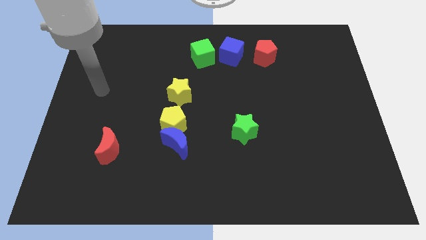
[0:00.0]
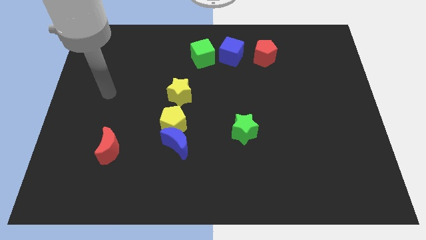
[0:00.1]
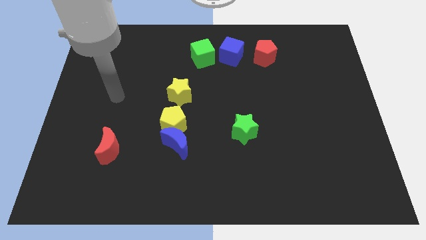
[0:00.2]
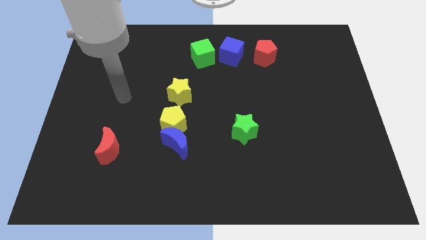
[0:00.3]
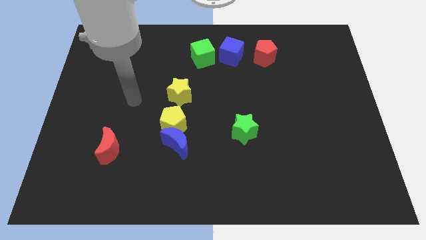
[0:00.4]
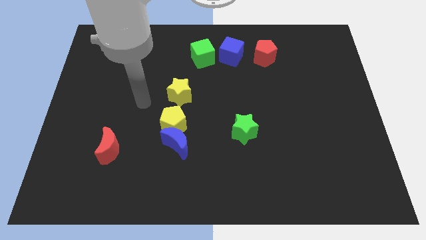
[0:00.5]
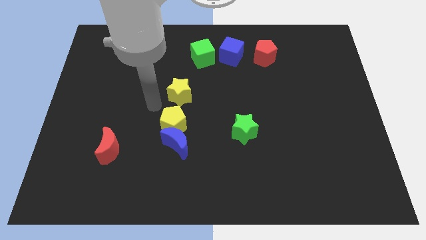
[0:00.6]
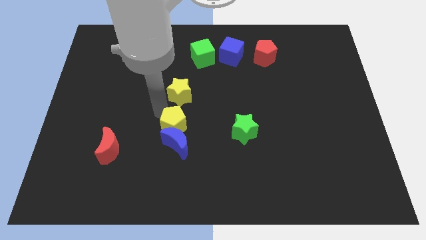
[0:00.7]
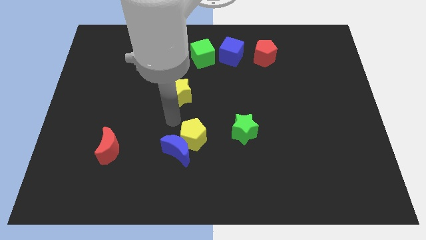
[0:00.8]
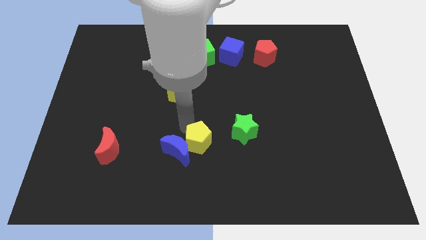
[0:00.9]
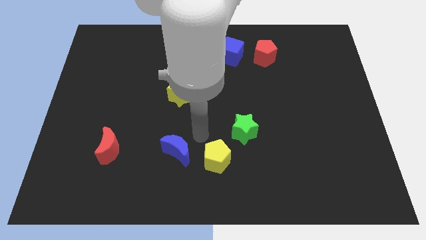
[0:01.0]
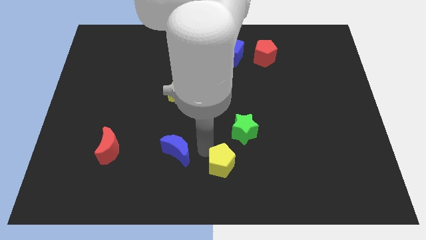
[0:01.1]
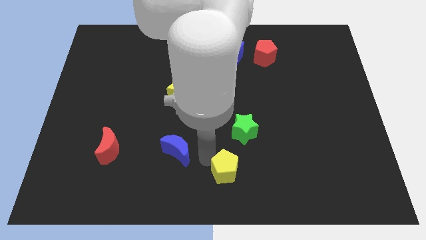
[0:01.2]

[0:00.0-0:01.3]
move the blue moon away from the yellow pentagon

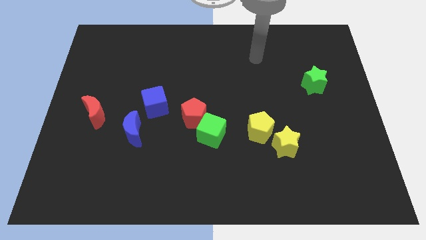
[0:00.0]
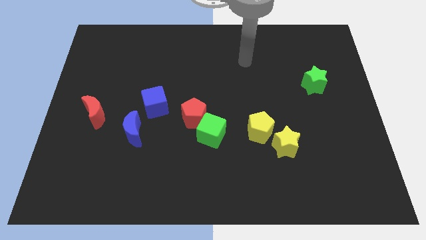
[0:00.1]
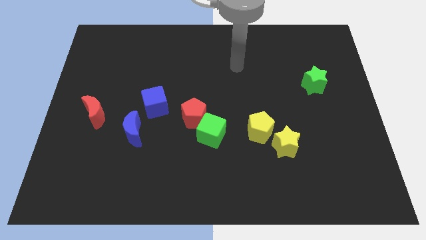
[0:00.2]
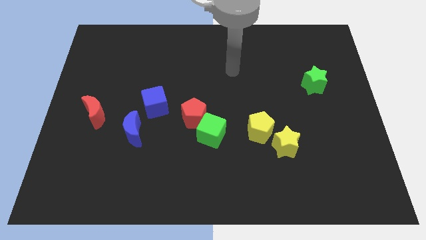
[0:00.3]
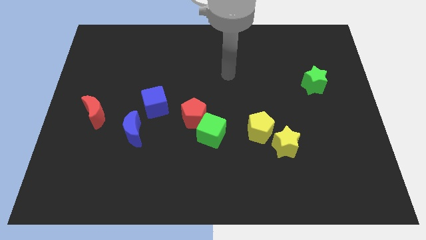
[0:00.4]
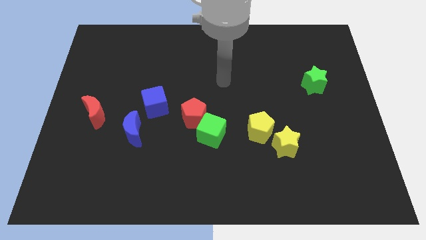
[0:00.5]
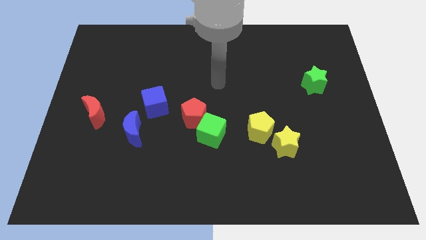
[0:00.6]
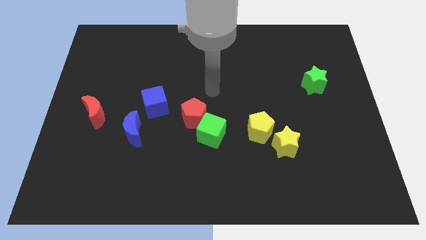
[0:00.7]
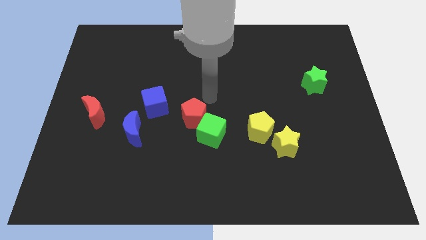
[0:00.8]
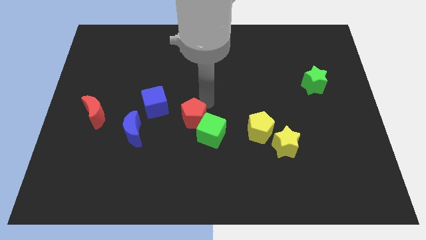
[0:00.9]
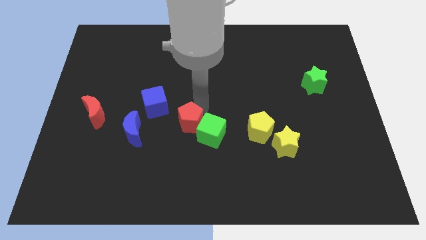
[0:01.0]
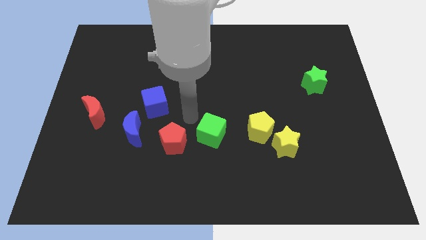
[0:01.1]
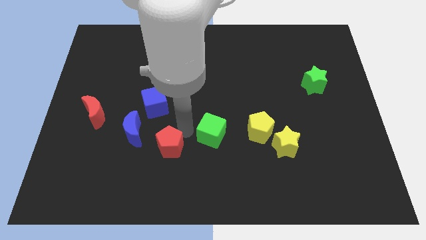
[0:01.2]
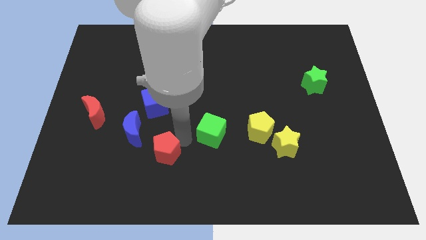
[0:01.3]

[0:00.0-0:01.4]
separate the green cube from the red pentagon

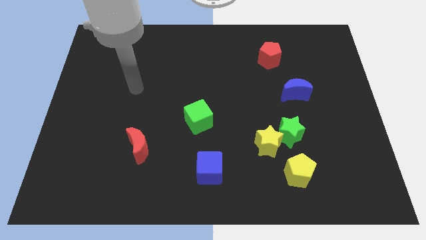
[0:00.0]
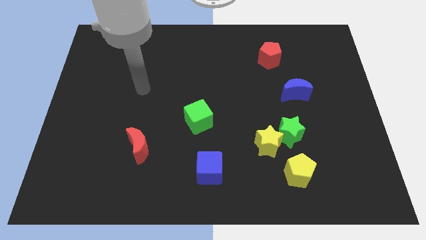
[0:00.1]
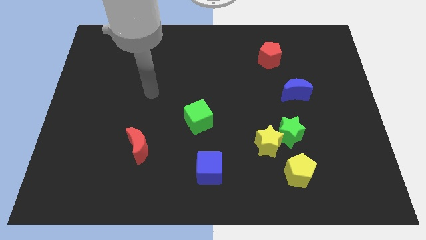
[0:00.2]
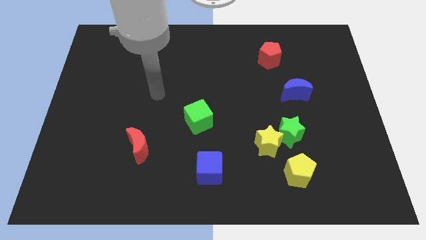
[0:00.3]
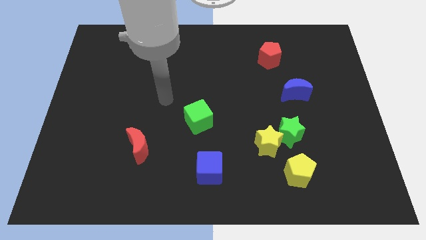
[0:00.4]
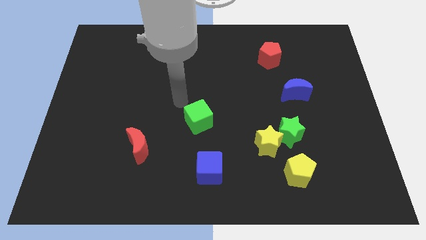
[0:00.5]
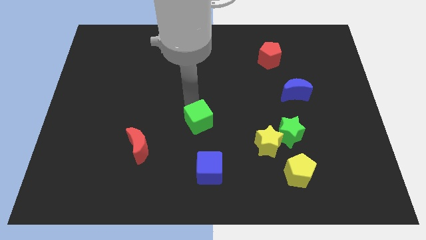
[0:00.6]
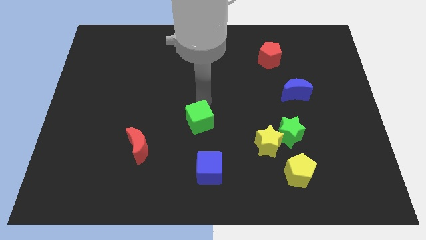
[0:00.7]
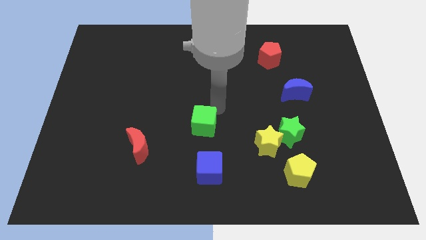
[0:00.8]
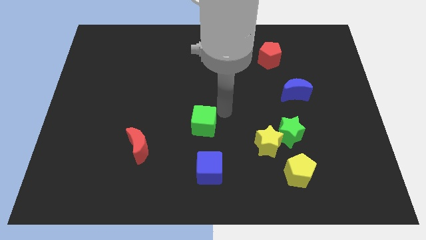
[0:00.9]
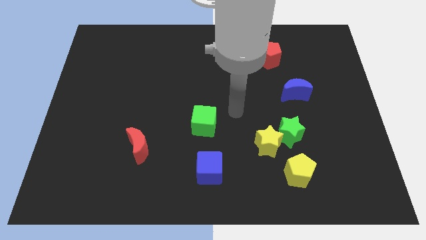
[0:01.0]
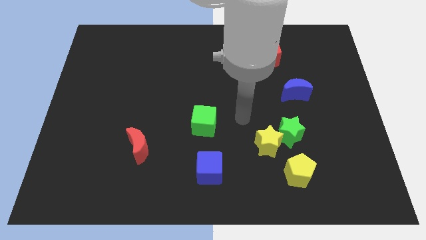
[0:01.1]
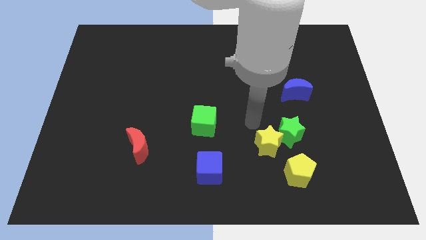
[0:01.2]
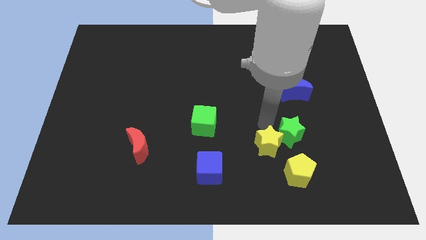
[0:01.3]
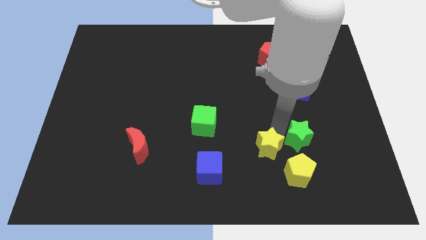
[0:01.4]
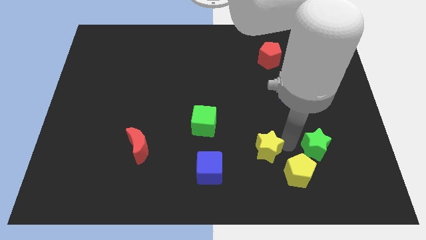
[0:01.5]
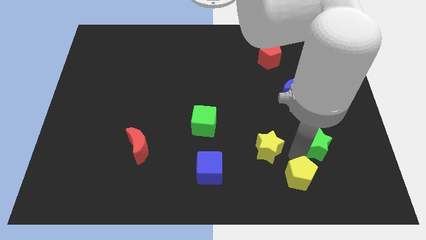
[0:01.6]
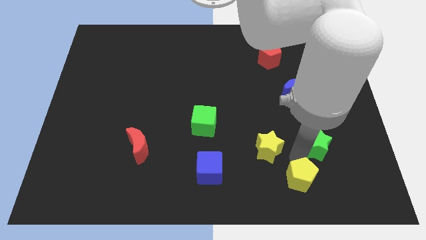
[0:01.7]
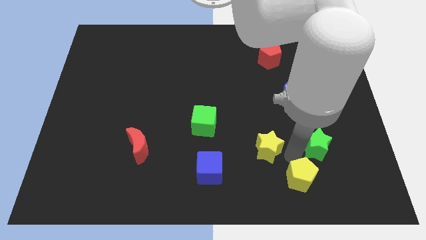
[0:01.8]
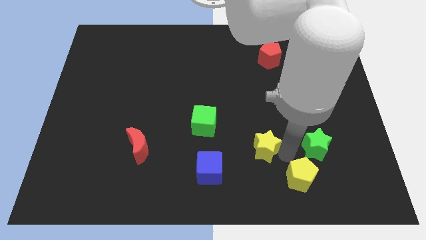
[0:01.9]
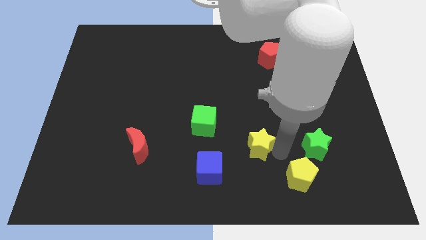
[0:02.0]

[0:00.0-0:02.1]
move the yellow star away from the green star and yellow pentagon

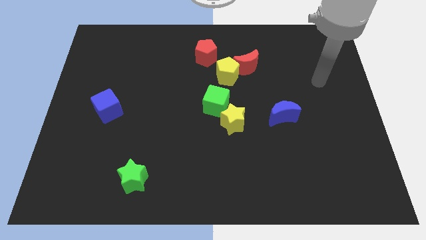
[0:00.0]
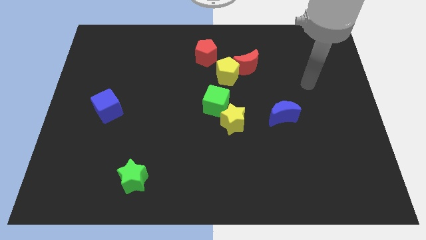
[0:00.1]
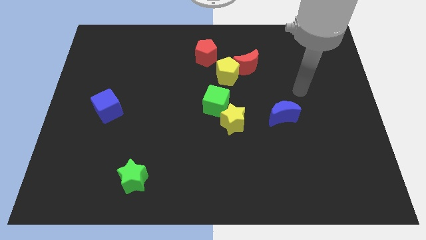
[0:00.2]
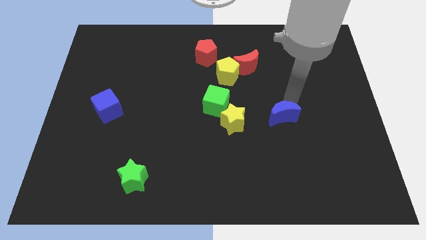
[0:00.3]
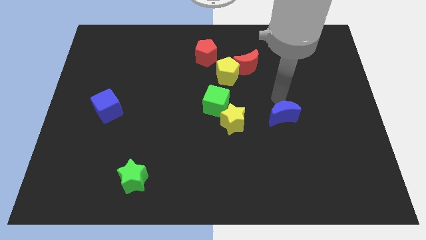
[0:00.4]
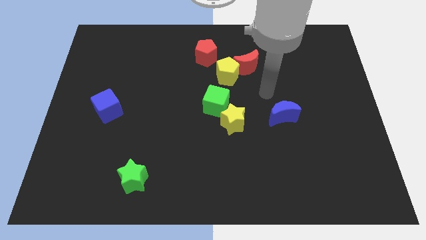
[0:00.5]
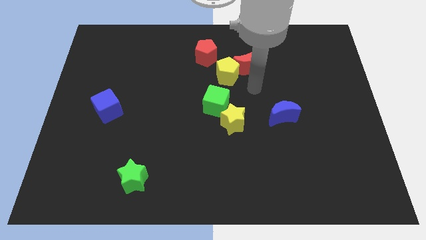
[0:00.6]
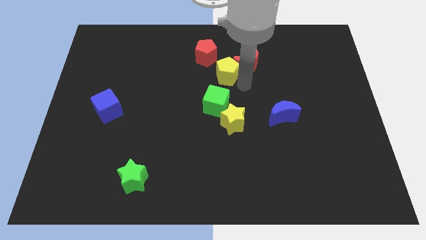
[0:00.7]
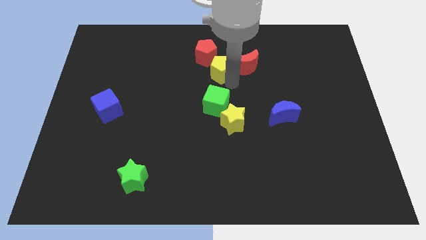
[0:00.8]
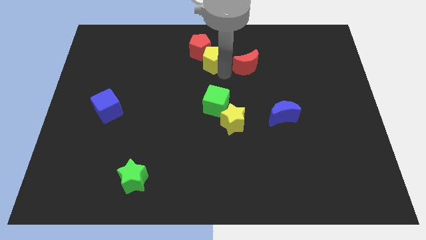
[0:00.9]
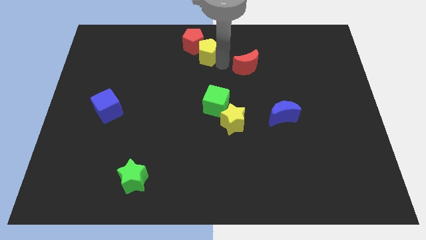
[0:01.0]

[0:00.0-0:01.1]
pull the red moon apart from the yellow pentagon

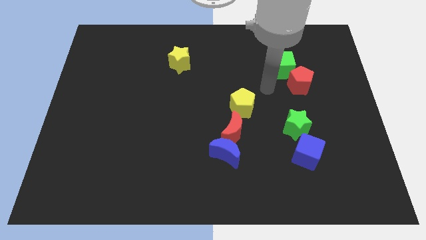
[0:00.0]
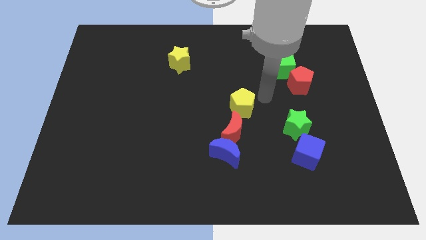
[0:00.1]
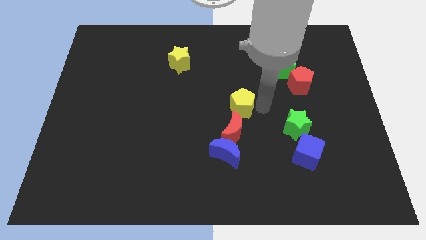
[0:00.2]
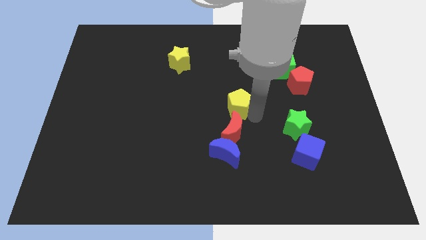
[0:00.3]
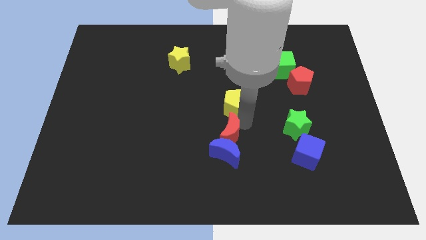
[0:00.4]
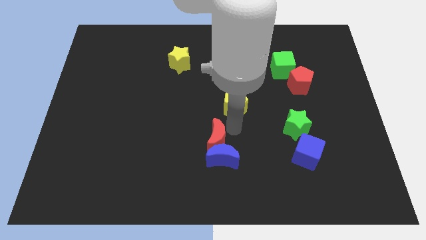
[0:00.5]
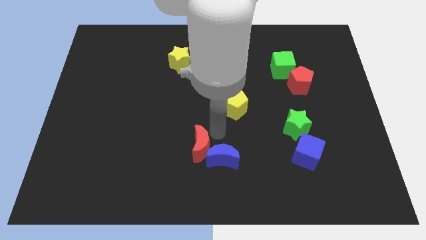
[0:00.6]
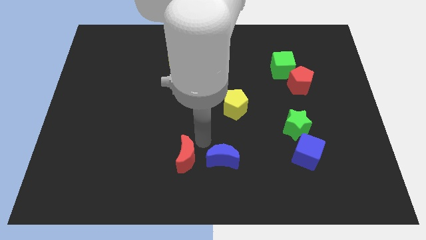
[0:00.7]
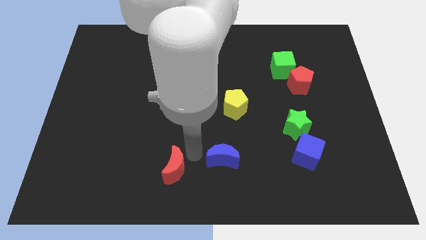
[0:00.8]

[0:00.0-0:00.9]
pull the blue moon apart from the red moon

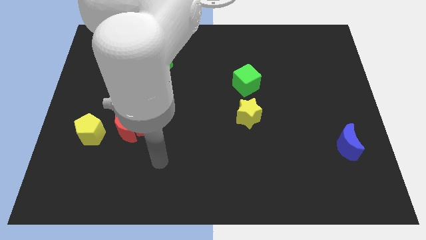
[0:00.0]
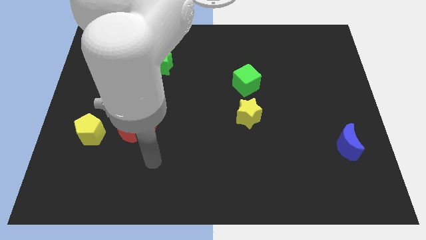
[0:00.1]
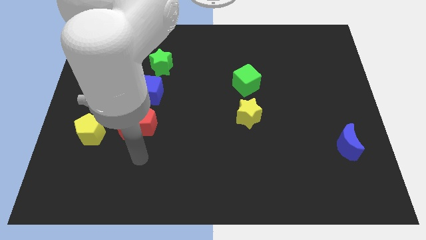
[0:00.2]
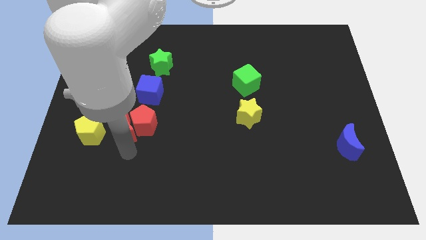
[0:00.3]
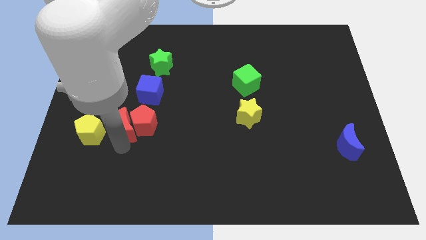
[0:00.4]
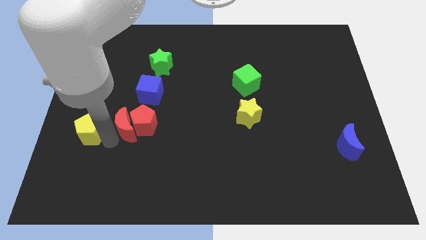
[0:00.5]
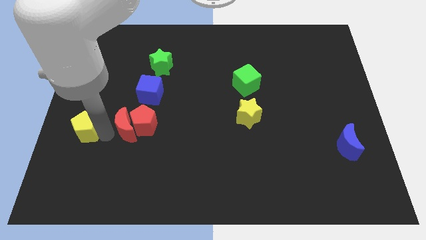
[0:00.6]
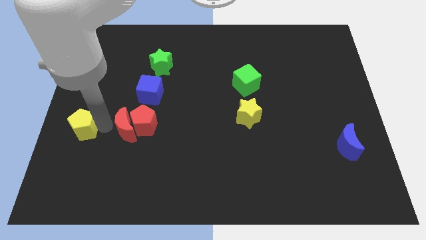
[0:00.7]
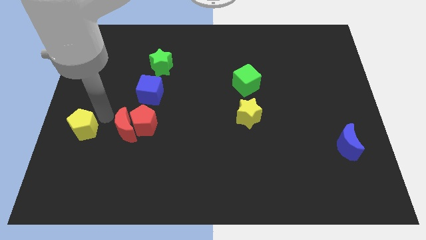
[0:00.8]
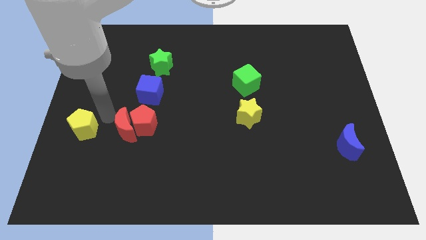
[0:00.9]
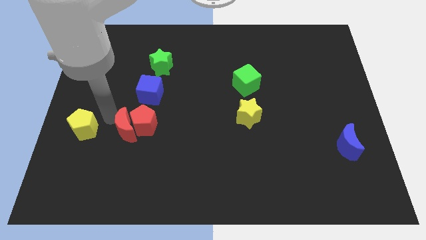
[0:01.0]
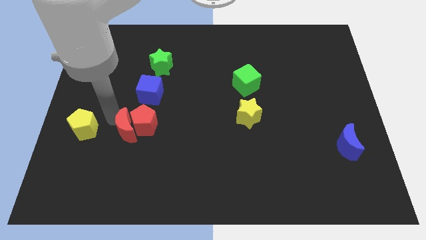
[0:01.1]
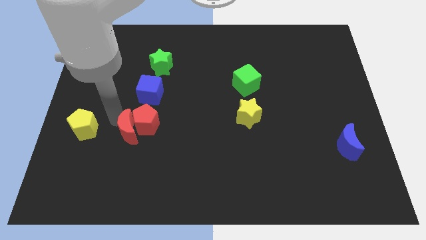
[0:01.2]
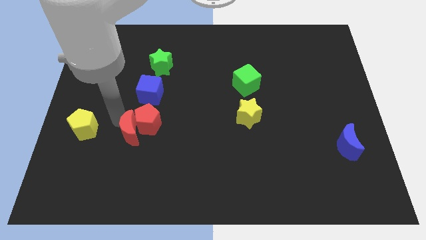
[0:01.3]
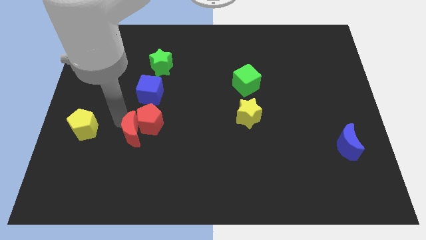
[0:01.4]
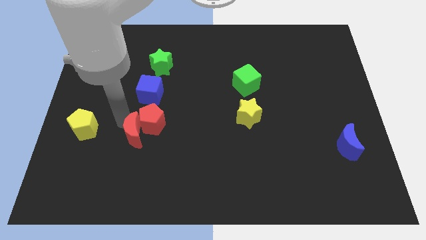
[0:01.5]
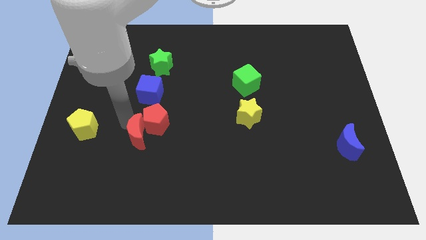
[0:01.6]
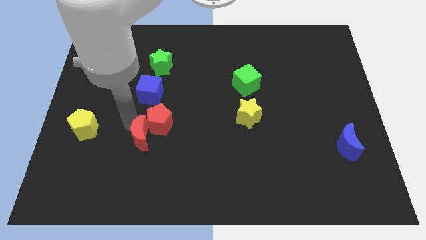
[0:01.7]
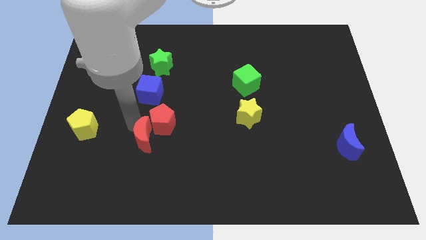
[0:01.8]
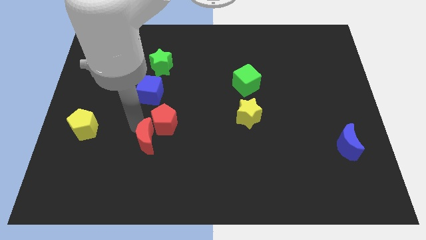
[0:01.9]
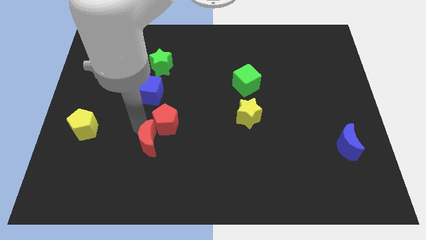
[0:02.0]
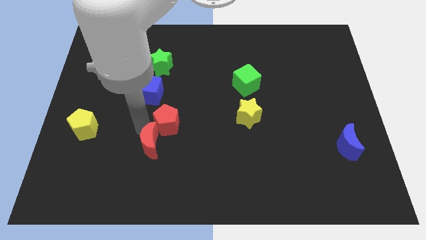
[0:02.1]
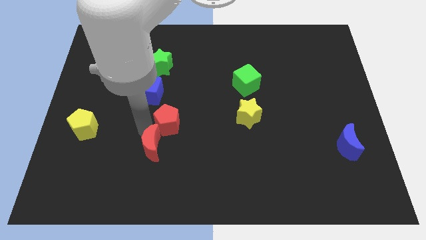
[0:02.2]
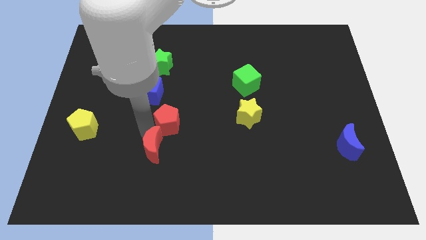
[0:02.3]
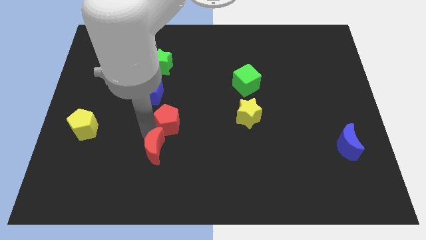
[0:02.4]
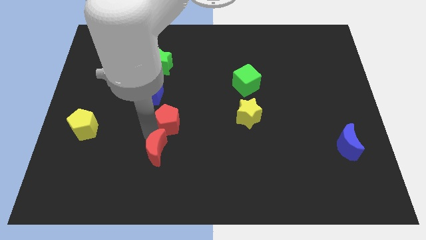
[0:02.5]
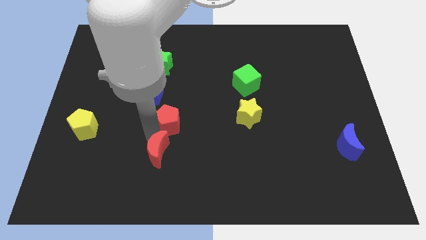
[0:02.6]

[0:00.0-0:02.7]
move the red moon away from the red pentagon and yellow pentagon
